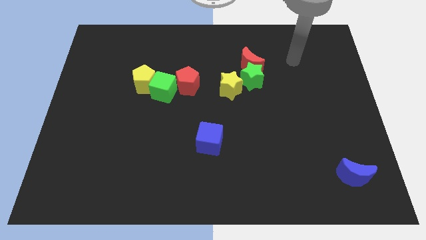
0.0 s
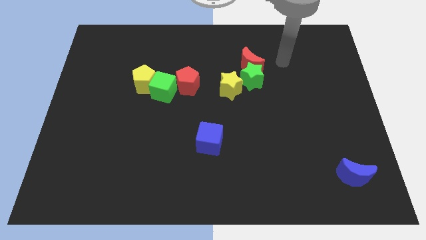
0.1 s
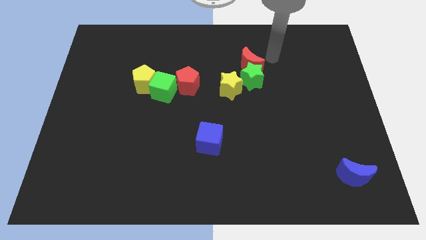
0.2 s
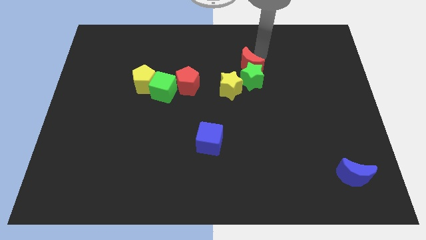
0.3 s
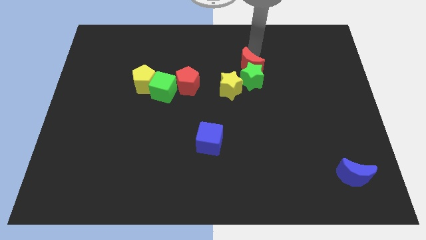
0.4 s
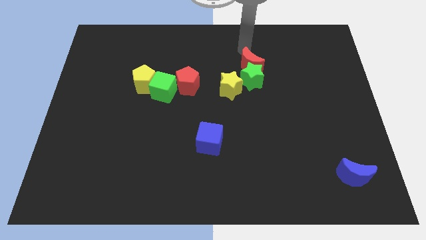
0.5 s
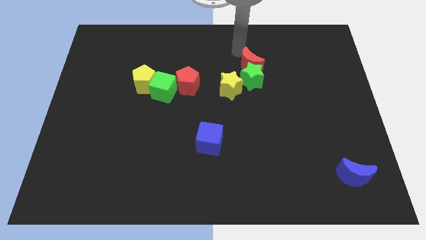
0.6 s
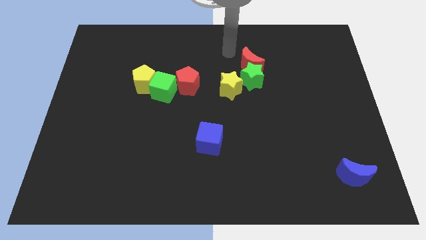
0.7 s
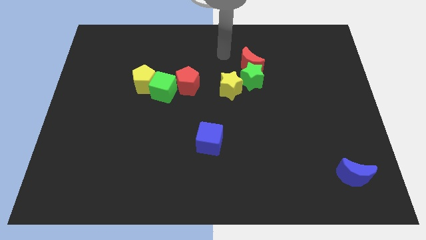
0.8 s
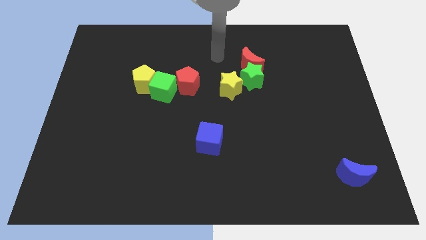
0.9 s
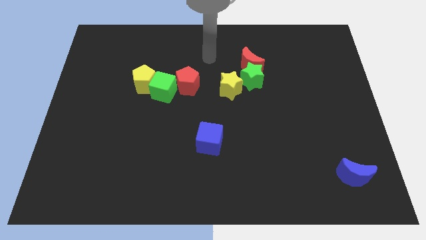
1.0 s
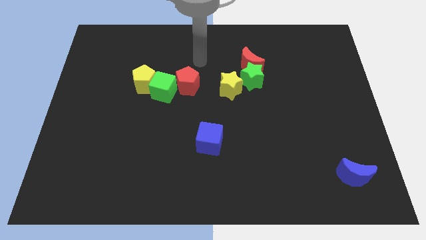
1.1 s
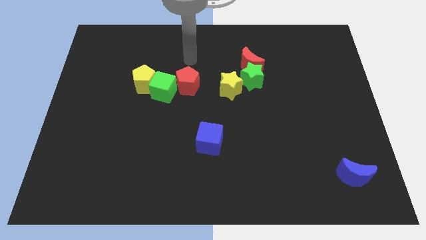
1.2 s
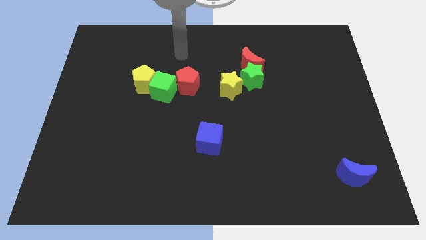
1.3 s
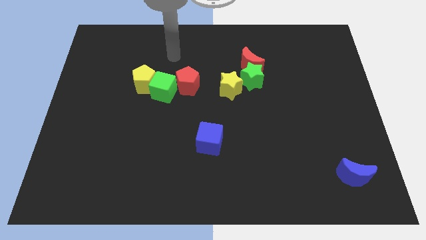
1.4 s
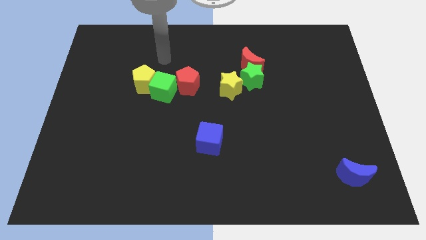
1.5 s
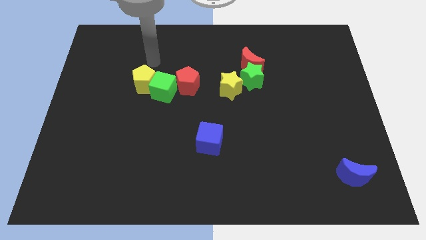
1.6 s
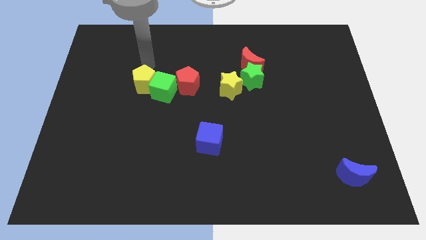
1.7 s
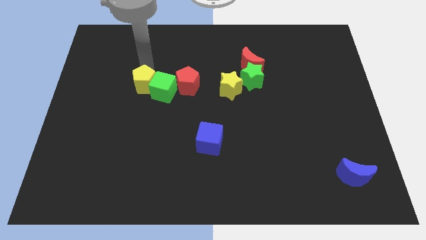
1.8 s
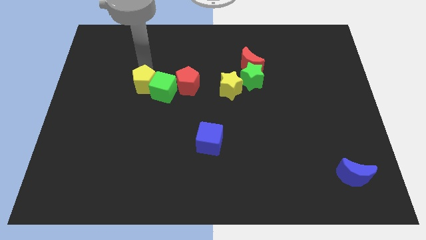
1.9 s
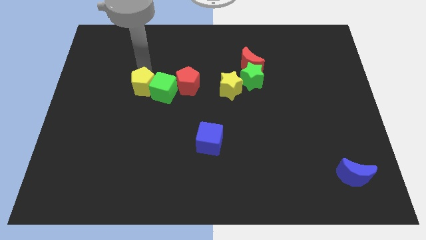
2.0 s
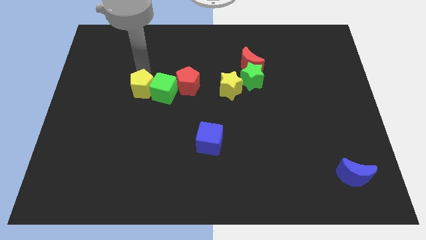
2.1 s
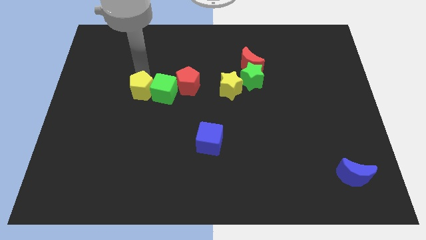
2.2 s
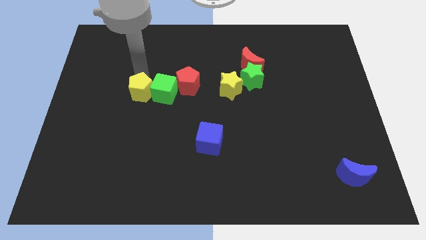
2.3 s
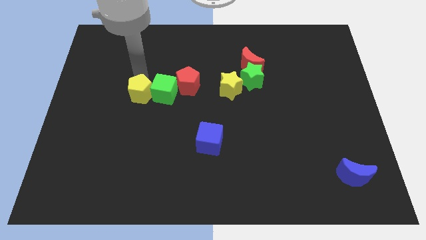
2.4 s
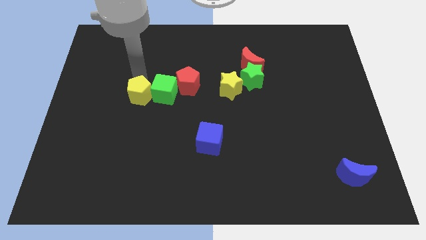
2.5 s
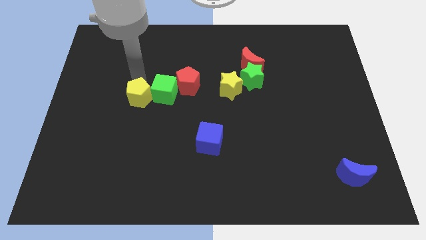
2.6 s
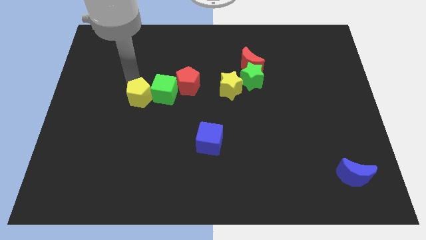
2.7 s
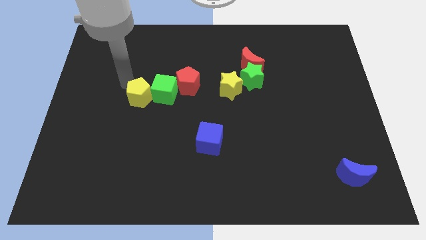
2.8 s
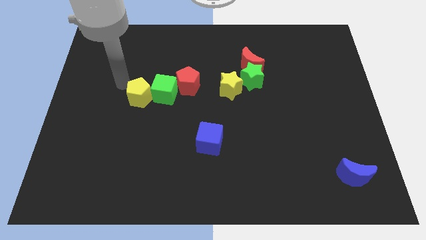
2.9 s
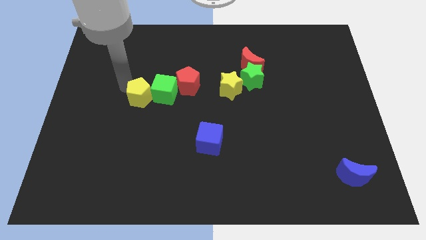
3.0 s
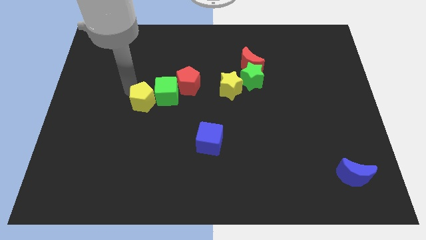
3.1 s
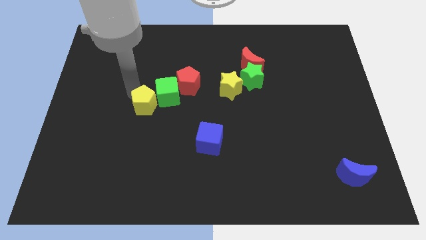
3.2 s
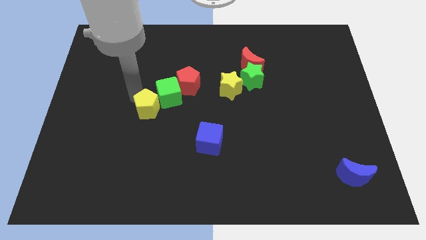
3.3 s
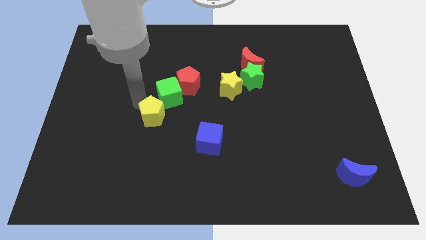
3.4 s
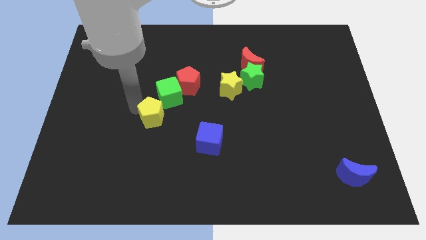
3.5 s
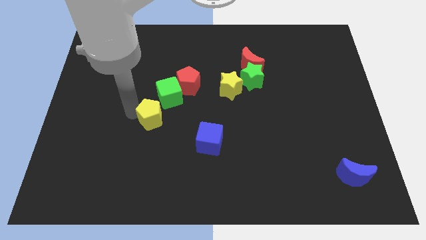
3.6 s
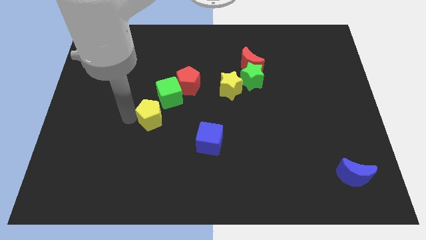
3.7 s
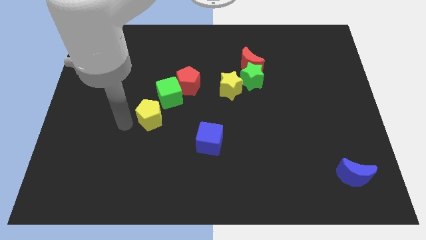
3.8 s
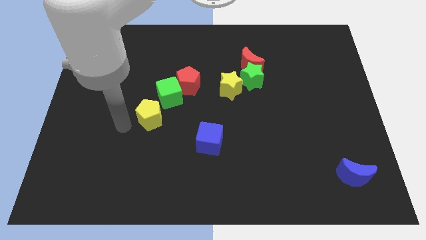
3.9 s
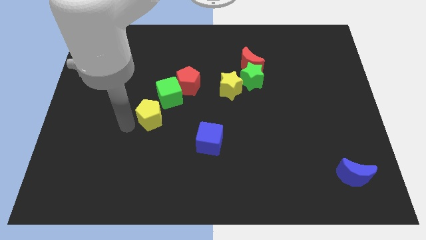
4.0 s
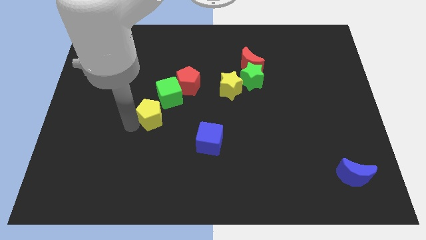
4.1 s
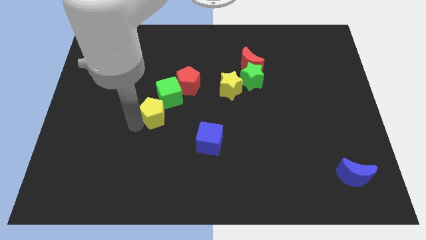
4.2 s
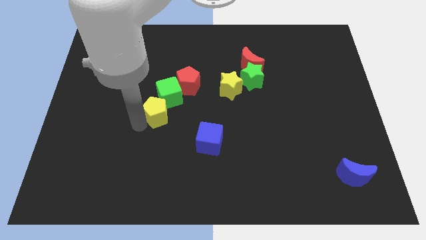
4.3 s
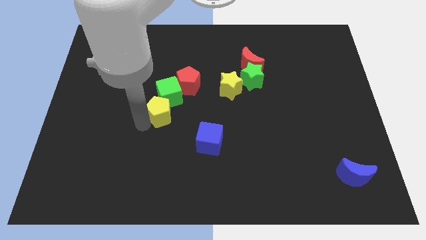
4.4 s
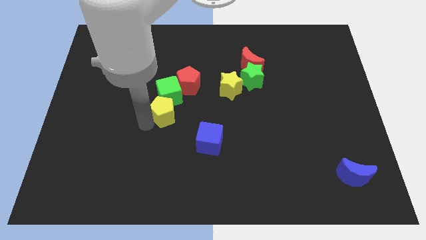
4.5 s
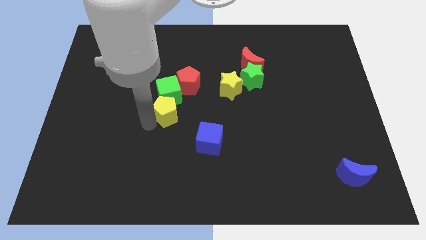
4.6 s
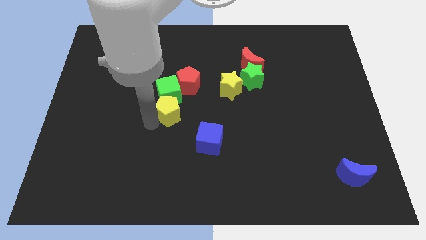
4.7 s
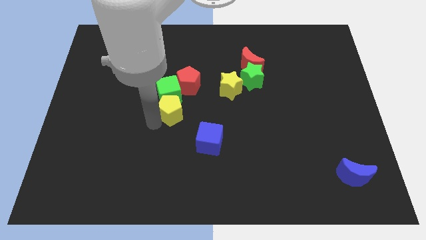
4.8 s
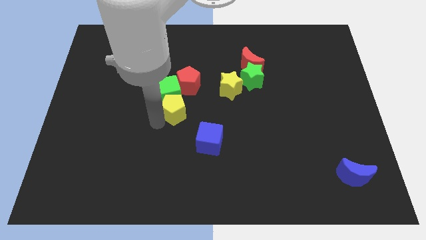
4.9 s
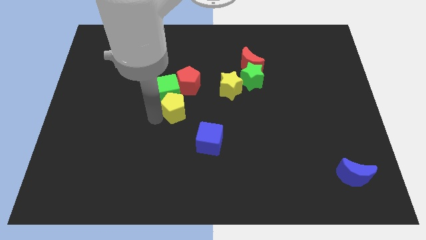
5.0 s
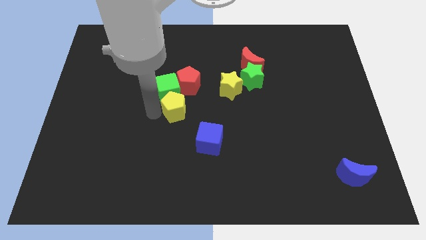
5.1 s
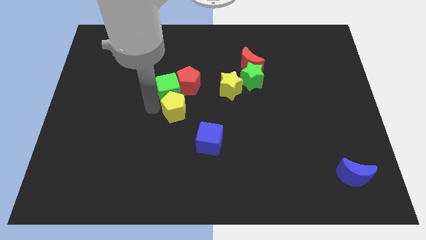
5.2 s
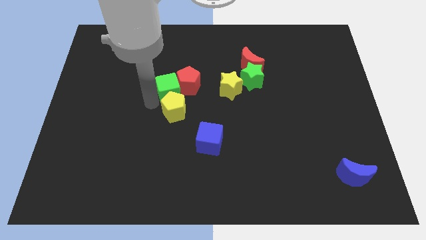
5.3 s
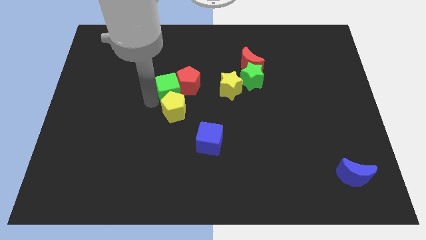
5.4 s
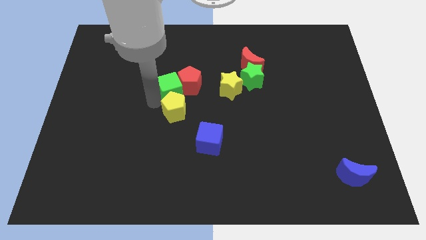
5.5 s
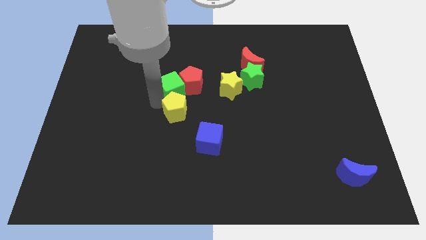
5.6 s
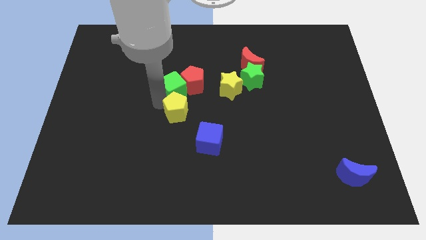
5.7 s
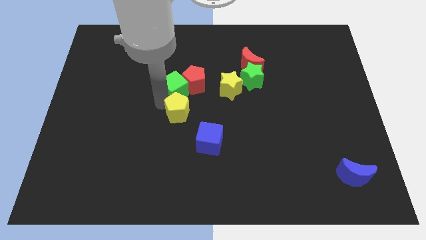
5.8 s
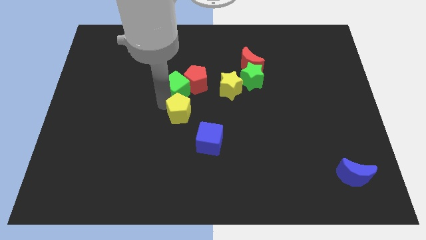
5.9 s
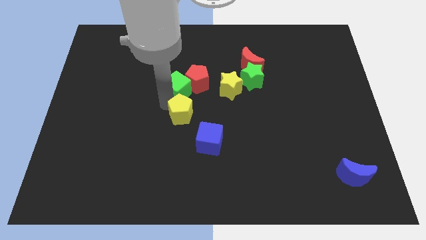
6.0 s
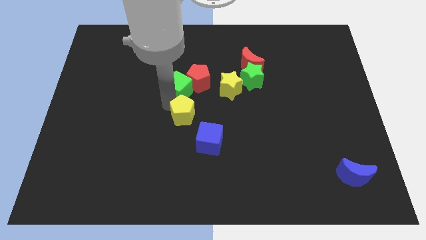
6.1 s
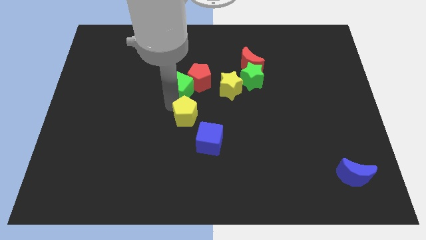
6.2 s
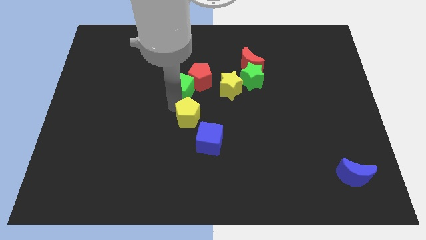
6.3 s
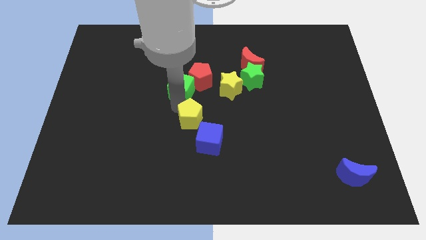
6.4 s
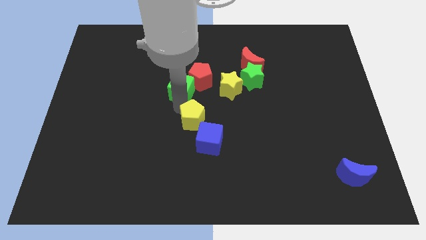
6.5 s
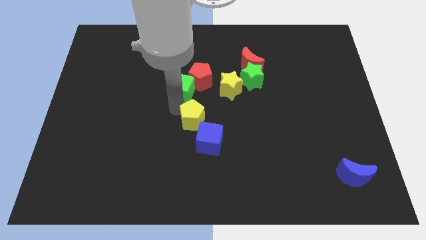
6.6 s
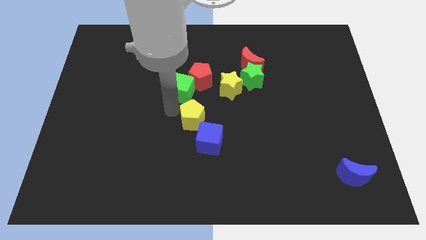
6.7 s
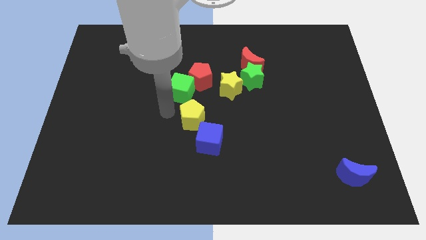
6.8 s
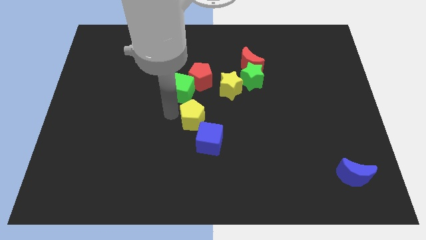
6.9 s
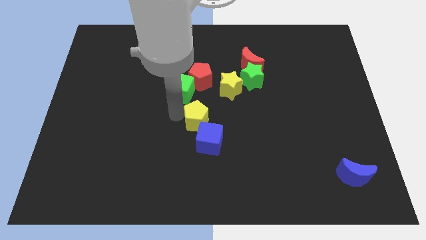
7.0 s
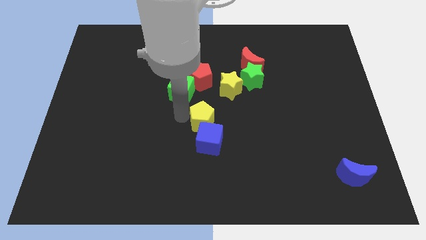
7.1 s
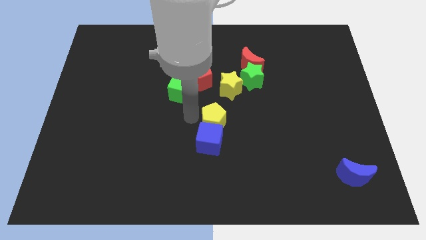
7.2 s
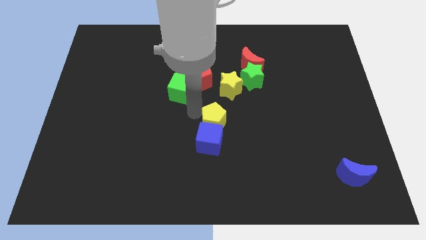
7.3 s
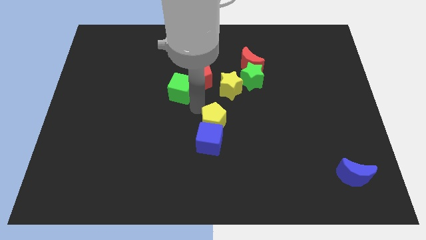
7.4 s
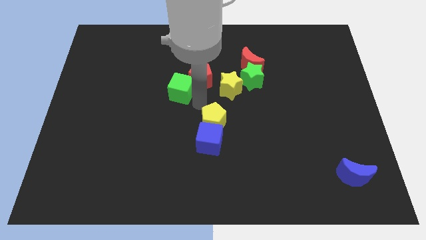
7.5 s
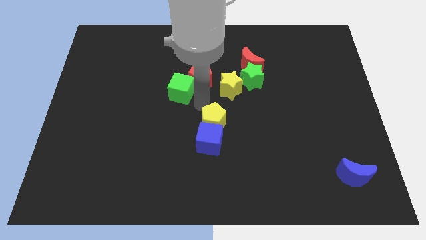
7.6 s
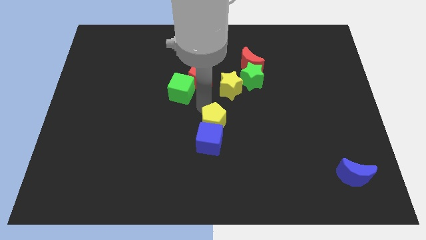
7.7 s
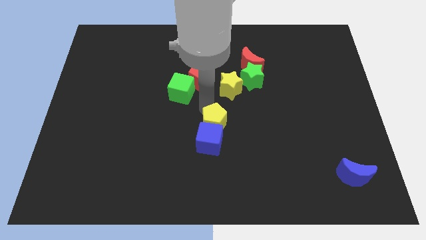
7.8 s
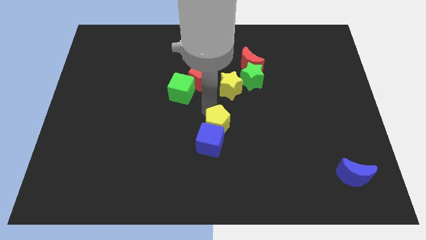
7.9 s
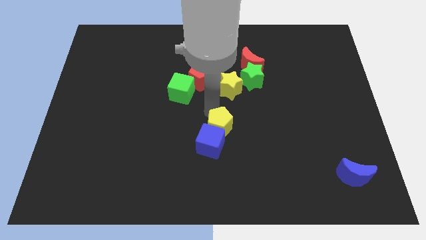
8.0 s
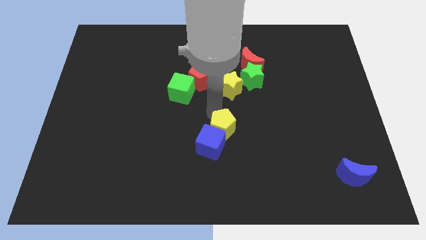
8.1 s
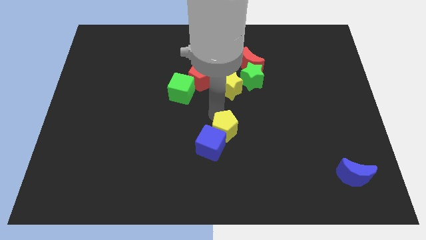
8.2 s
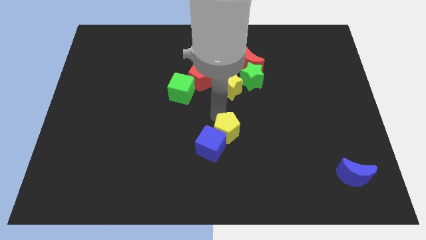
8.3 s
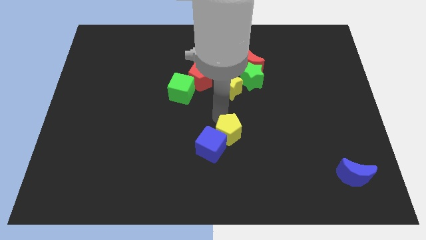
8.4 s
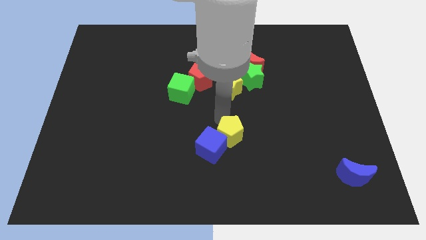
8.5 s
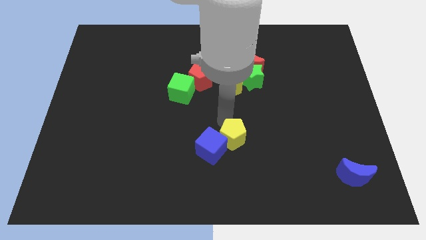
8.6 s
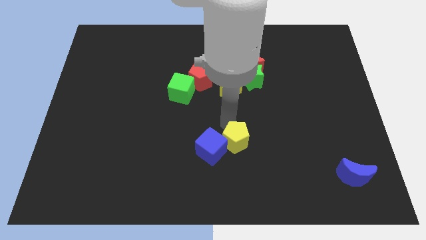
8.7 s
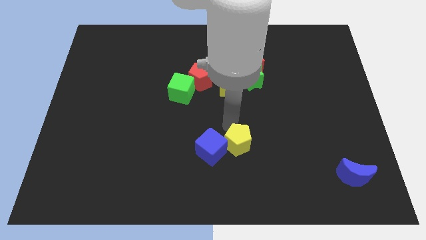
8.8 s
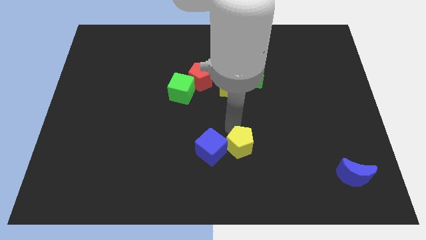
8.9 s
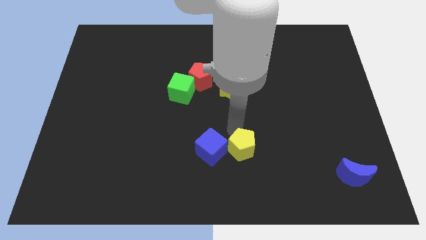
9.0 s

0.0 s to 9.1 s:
put the yellow pentagon diagonally down and to the right of the blue cube
